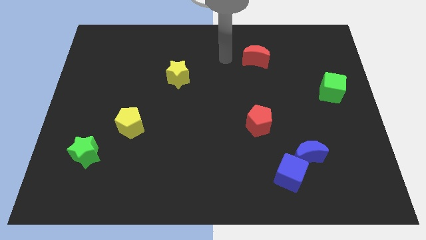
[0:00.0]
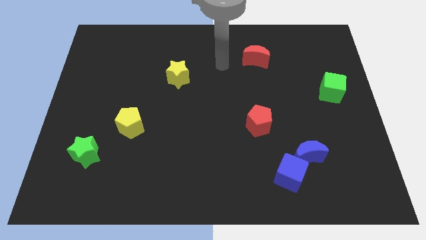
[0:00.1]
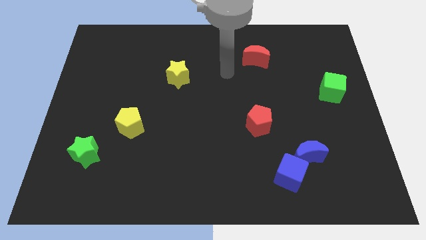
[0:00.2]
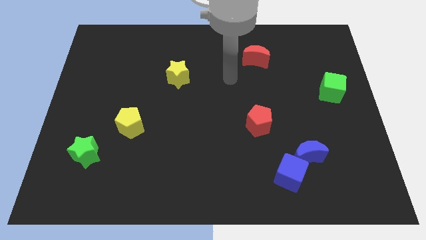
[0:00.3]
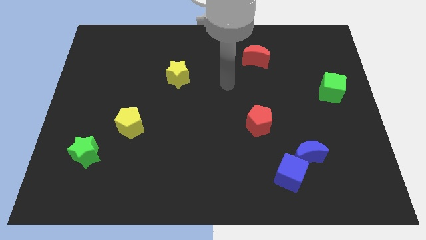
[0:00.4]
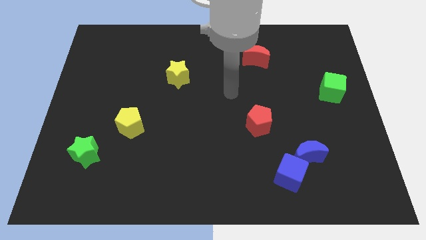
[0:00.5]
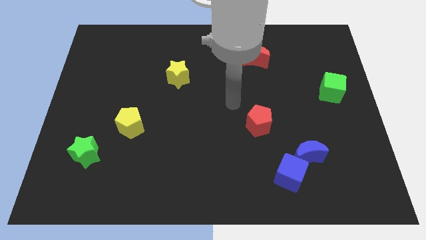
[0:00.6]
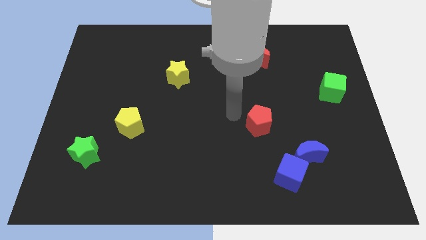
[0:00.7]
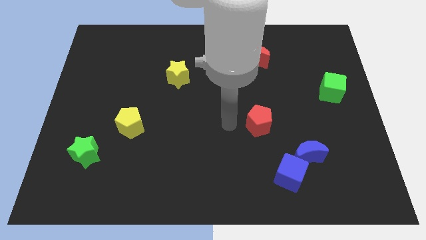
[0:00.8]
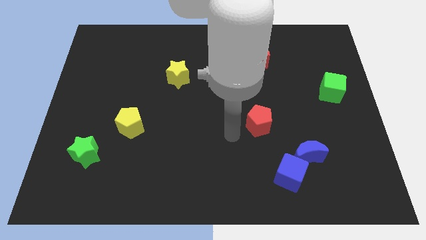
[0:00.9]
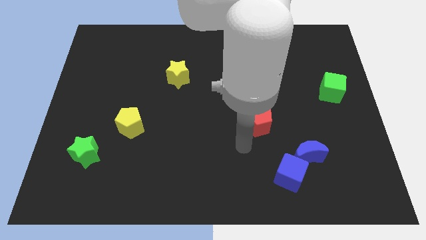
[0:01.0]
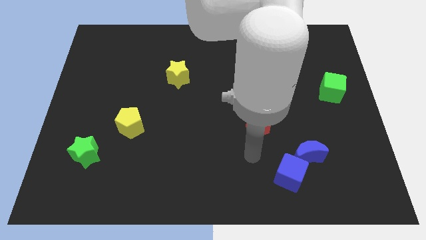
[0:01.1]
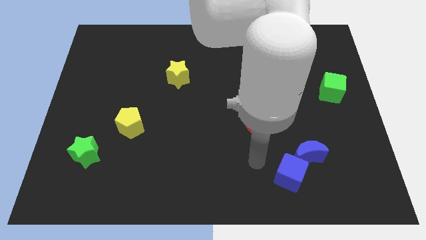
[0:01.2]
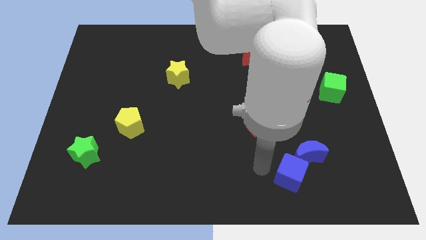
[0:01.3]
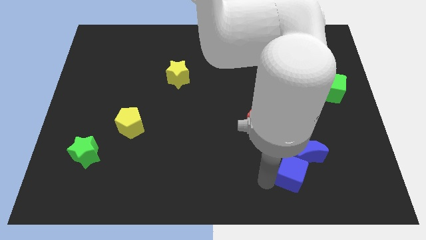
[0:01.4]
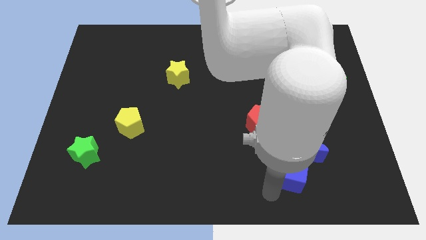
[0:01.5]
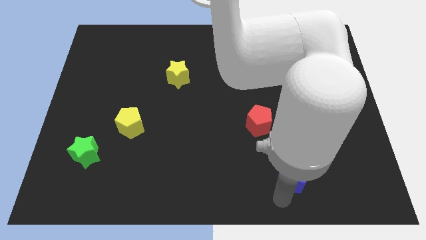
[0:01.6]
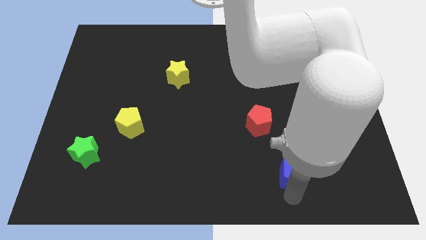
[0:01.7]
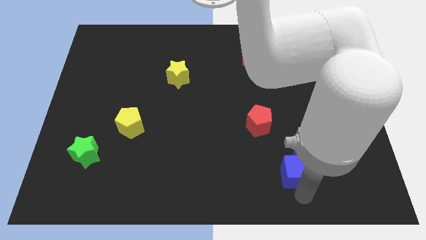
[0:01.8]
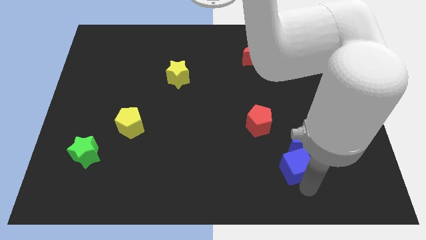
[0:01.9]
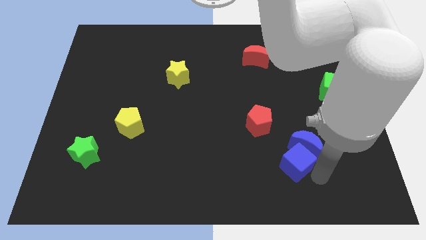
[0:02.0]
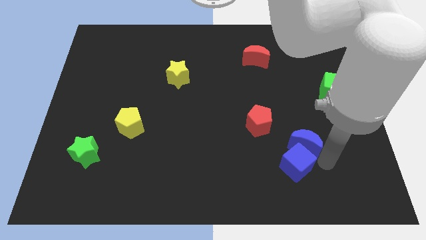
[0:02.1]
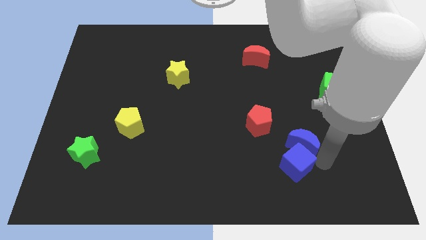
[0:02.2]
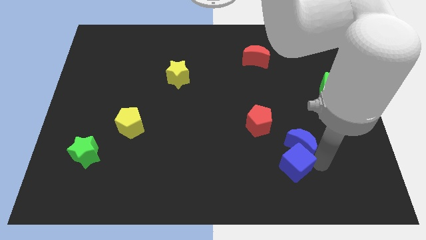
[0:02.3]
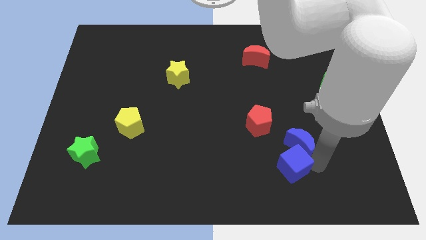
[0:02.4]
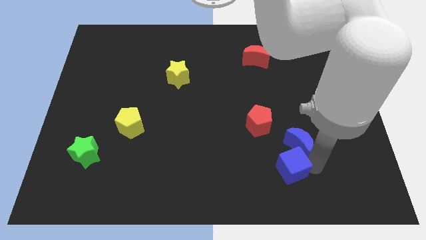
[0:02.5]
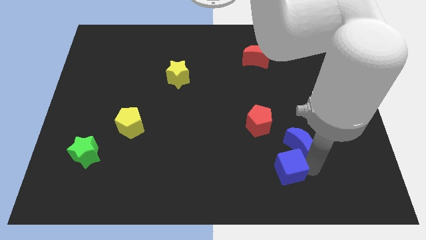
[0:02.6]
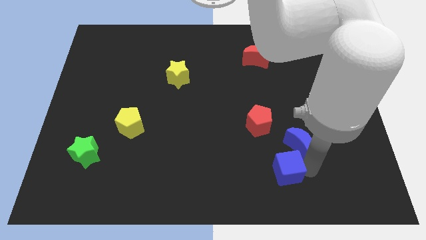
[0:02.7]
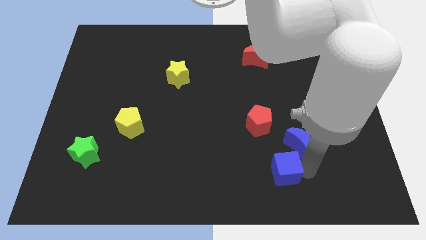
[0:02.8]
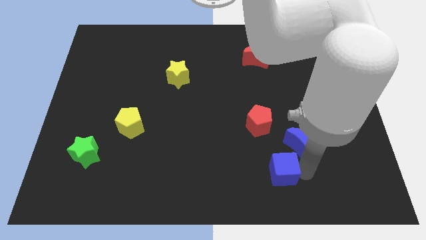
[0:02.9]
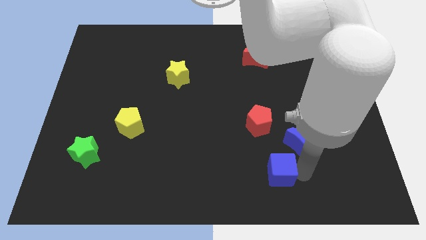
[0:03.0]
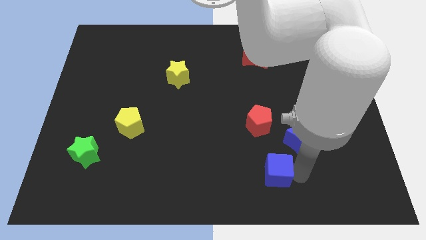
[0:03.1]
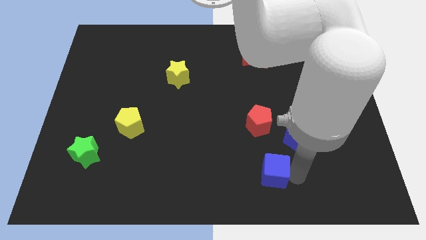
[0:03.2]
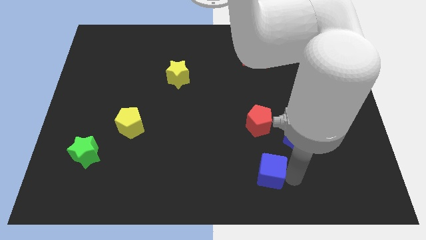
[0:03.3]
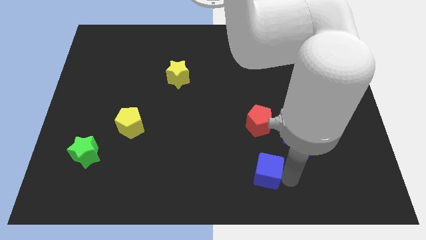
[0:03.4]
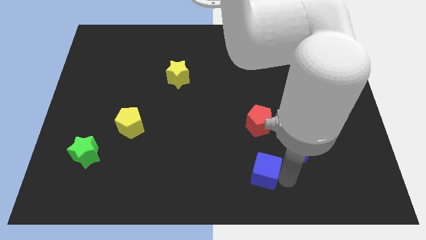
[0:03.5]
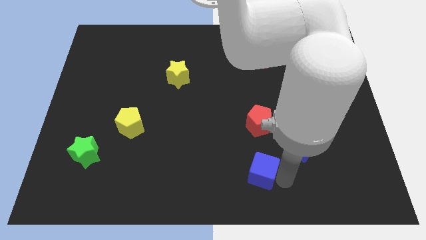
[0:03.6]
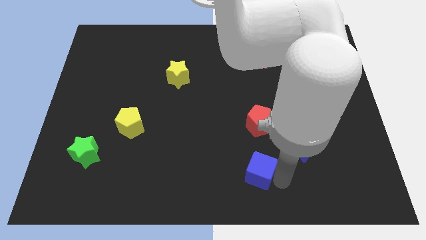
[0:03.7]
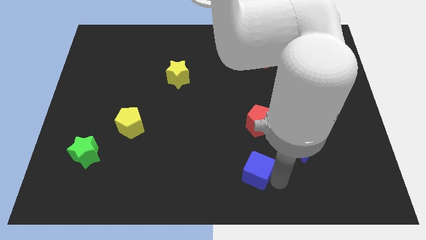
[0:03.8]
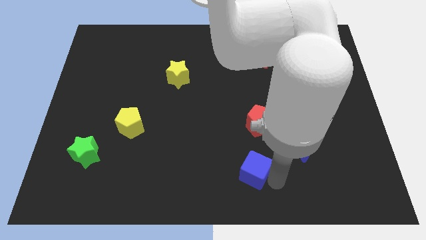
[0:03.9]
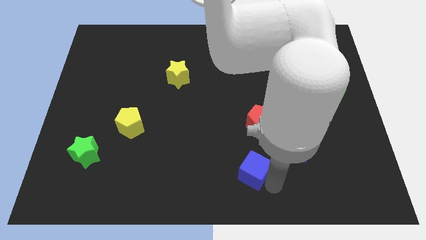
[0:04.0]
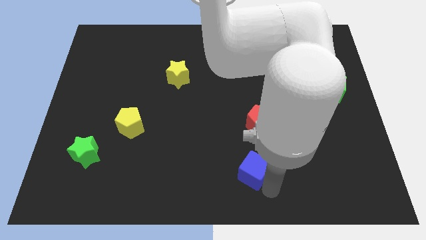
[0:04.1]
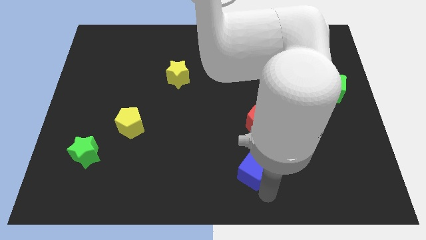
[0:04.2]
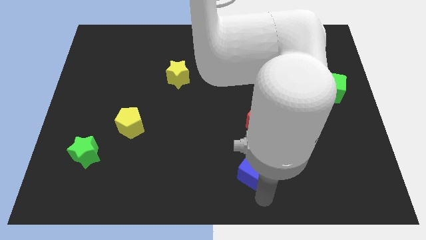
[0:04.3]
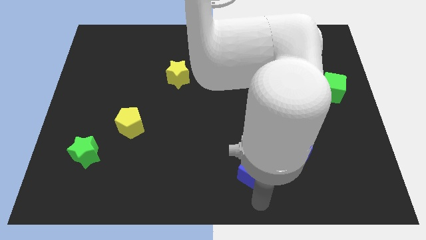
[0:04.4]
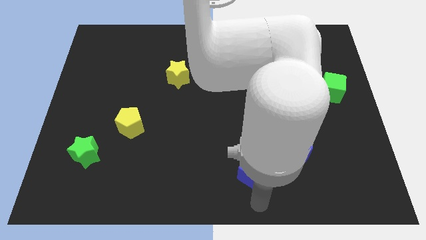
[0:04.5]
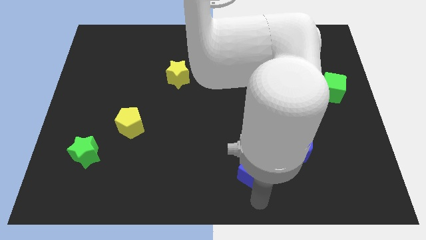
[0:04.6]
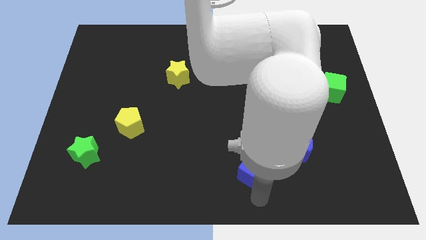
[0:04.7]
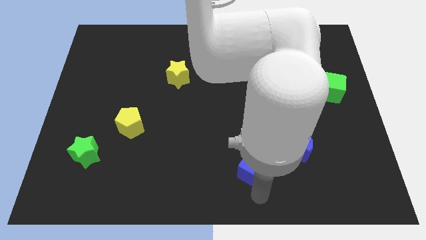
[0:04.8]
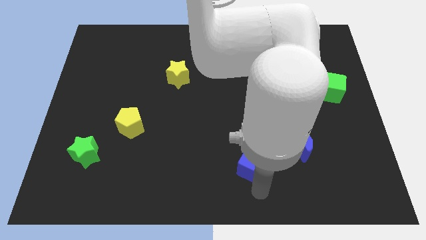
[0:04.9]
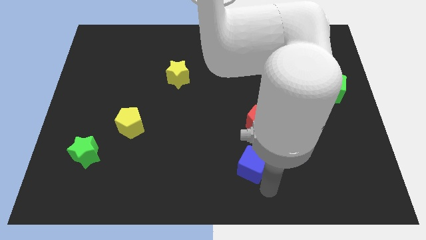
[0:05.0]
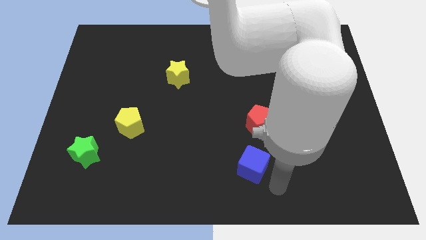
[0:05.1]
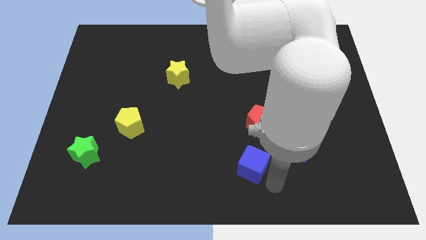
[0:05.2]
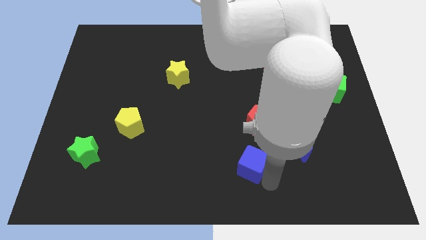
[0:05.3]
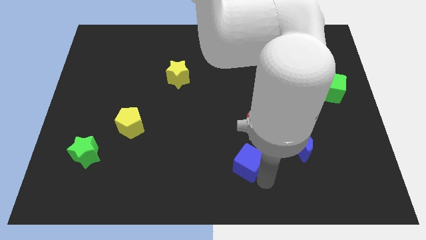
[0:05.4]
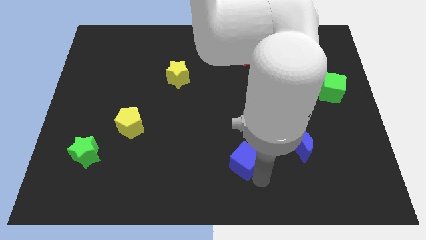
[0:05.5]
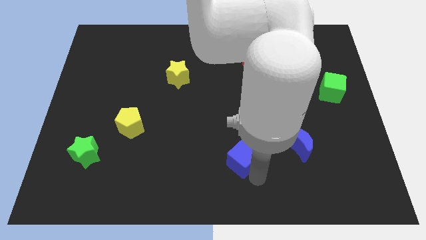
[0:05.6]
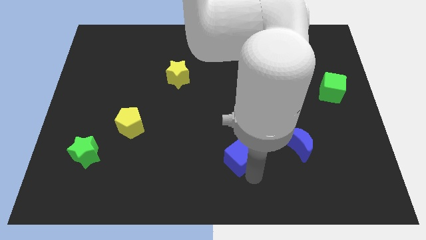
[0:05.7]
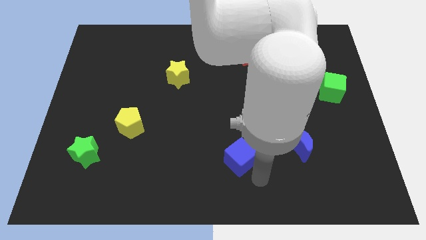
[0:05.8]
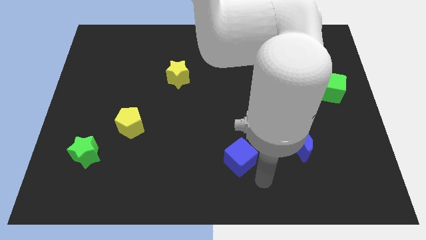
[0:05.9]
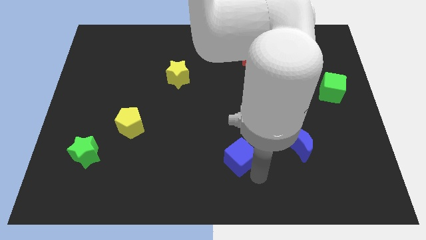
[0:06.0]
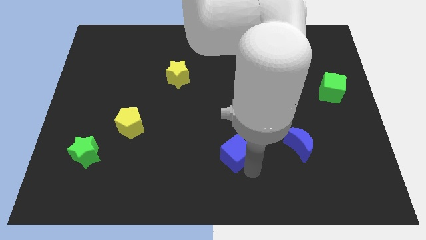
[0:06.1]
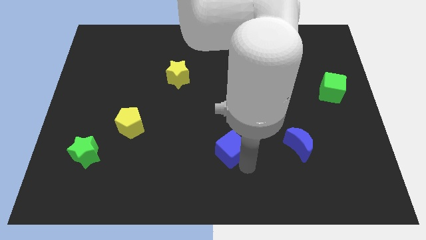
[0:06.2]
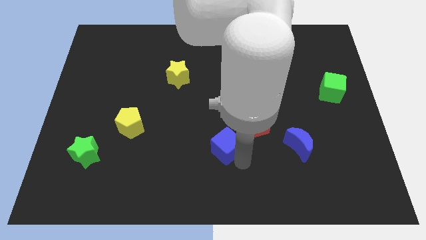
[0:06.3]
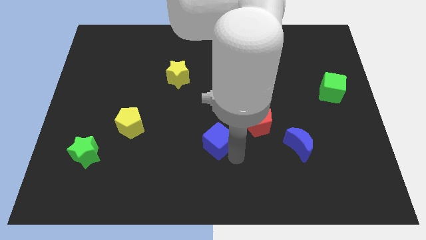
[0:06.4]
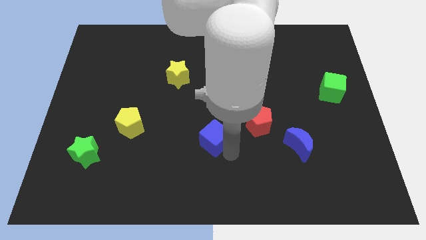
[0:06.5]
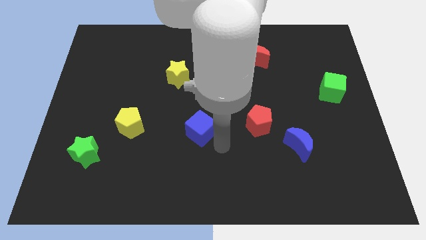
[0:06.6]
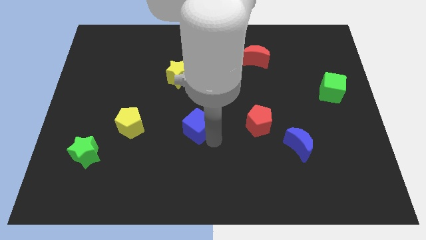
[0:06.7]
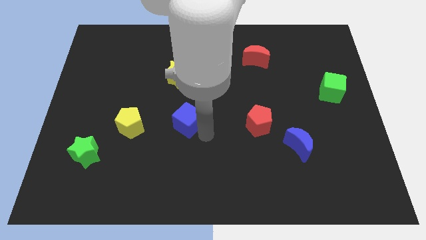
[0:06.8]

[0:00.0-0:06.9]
move the blue cube below the yellow star

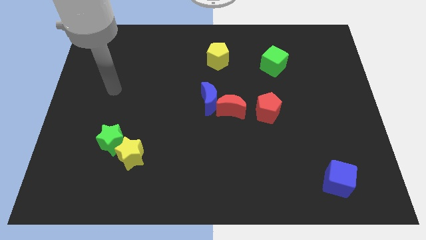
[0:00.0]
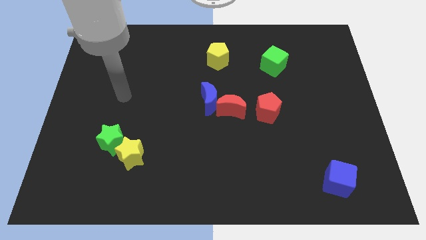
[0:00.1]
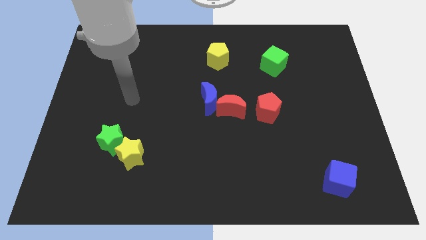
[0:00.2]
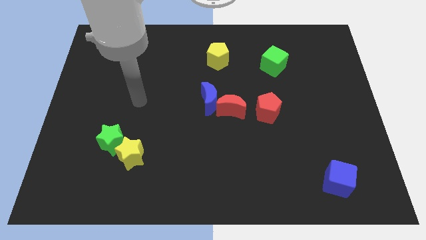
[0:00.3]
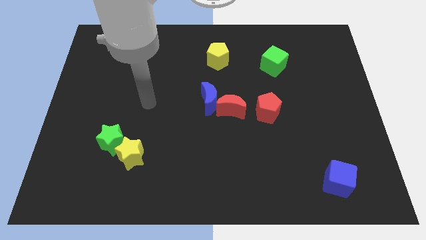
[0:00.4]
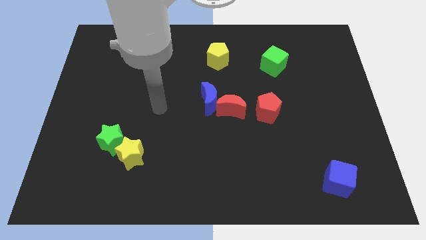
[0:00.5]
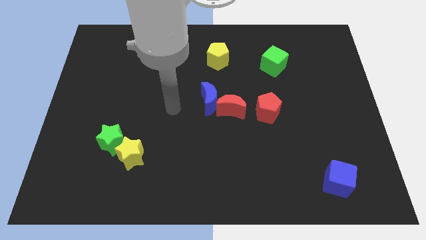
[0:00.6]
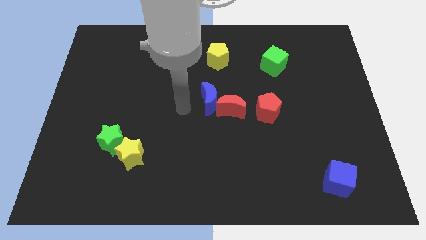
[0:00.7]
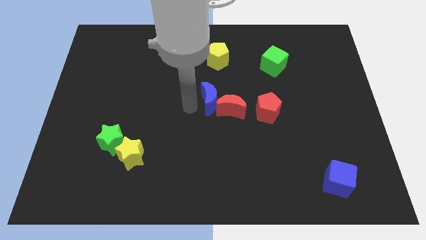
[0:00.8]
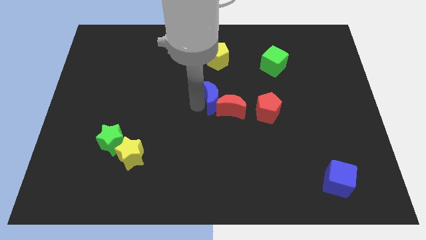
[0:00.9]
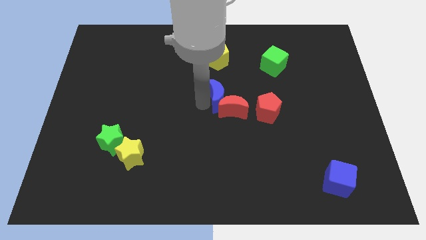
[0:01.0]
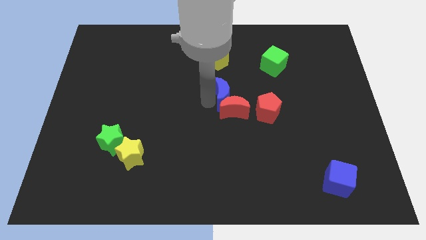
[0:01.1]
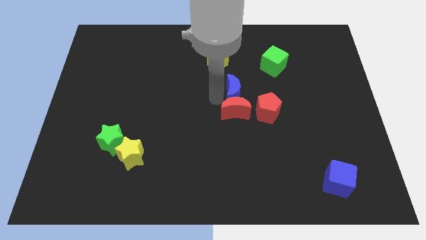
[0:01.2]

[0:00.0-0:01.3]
push the blue moon to the top right side of the red moon
